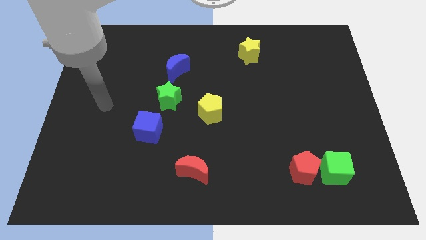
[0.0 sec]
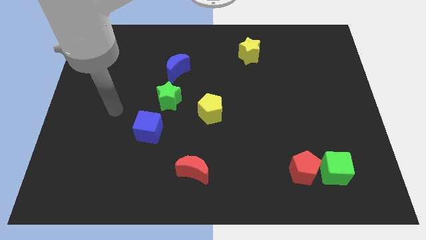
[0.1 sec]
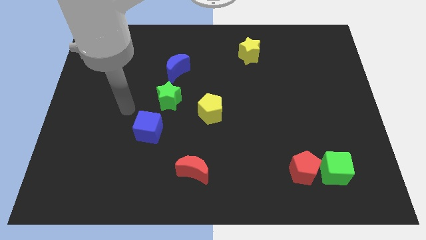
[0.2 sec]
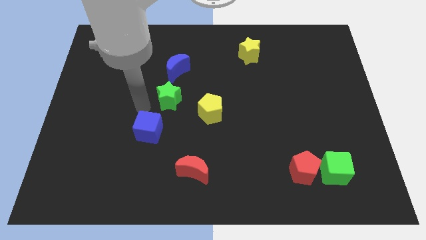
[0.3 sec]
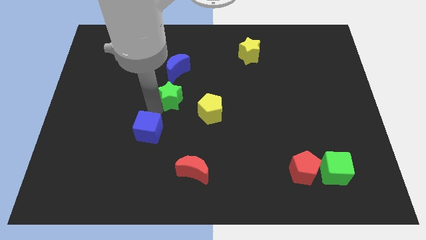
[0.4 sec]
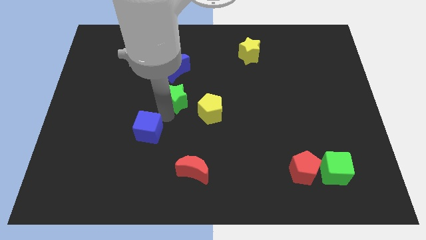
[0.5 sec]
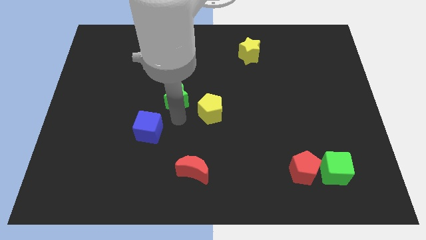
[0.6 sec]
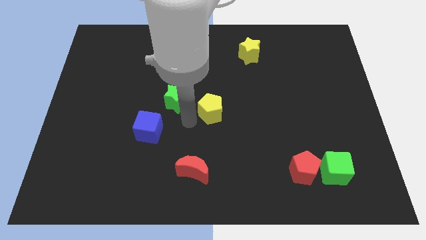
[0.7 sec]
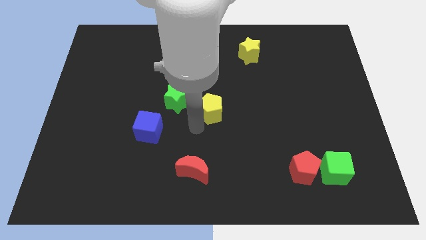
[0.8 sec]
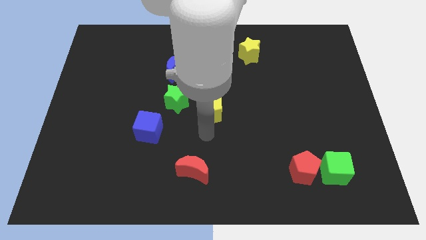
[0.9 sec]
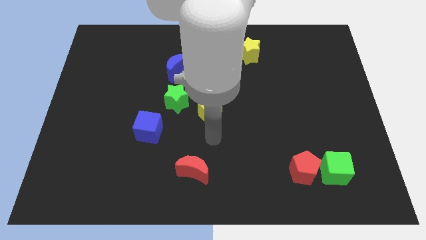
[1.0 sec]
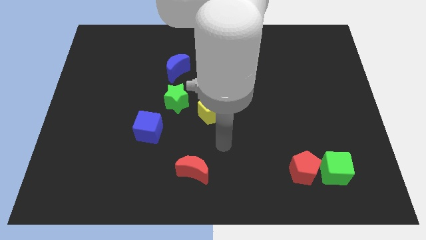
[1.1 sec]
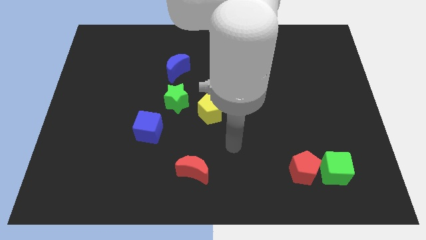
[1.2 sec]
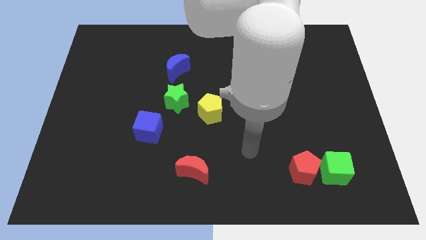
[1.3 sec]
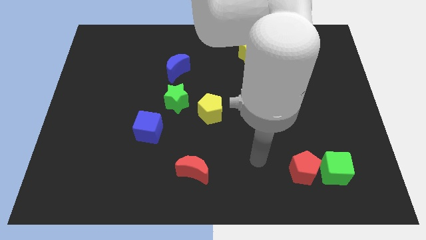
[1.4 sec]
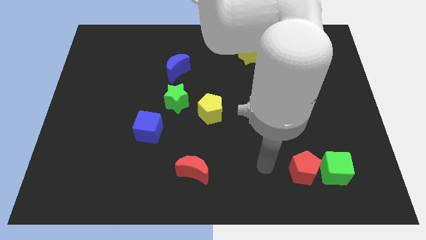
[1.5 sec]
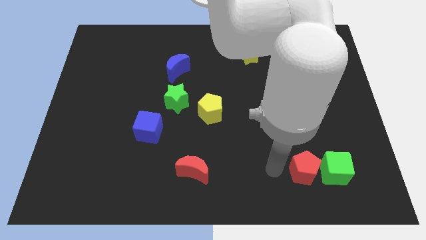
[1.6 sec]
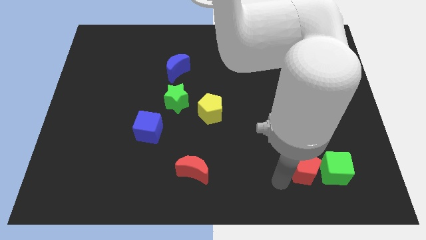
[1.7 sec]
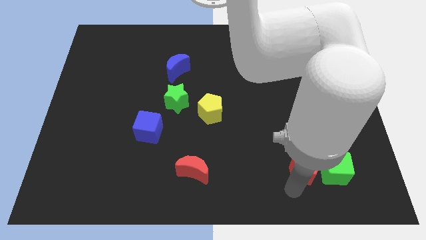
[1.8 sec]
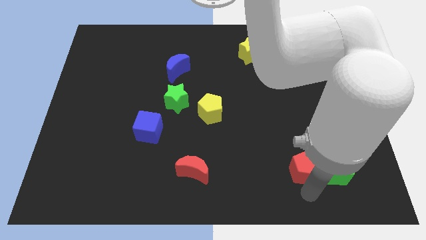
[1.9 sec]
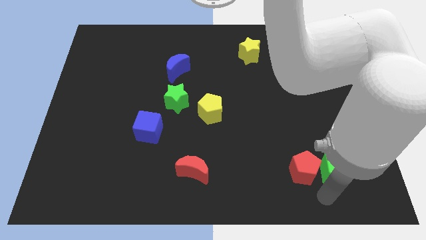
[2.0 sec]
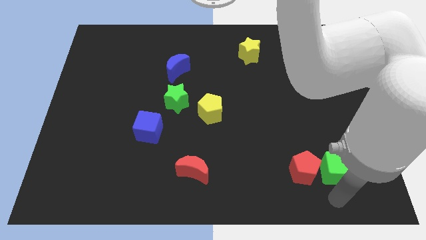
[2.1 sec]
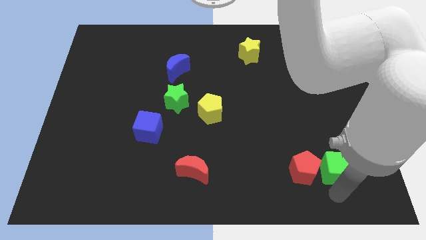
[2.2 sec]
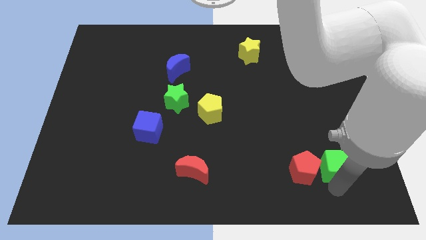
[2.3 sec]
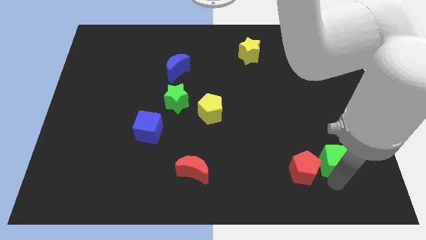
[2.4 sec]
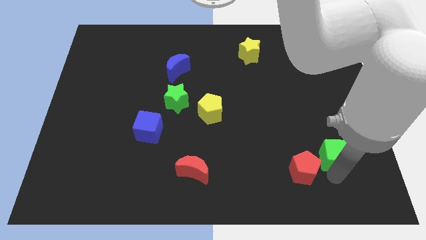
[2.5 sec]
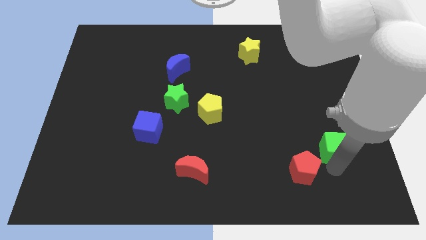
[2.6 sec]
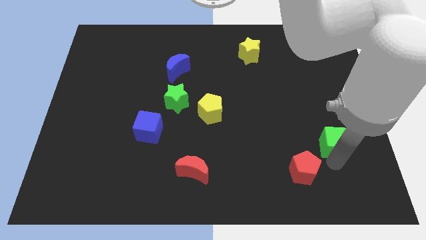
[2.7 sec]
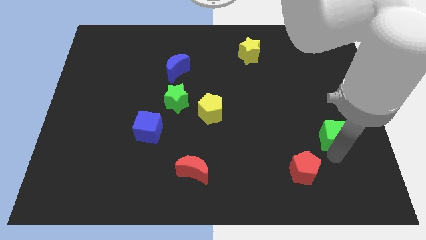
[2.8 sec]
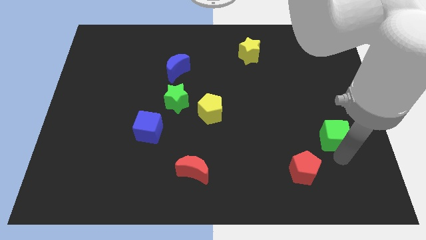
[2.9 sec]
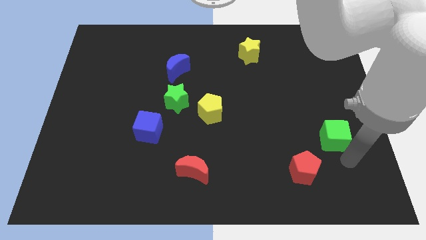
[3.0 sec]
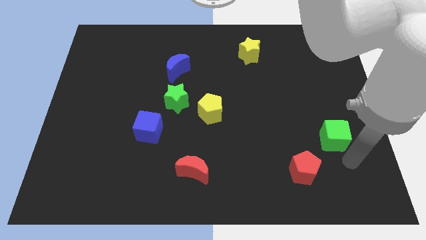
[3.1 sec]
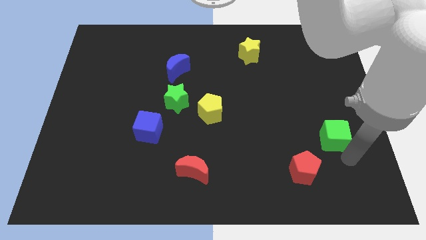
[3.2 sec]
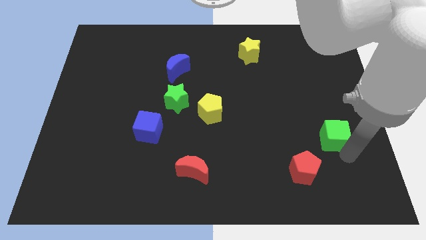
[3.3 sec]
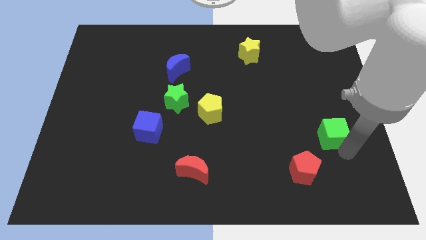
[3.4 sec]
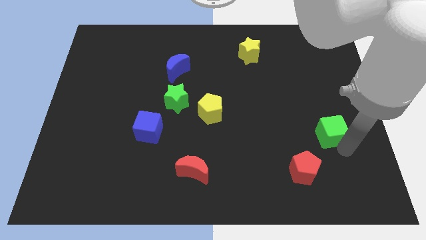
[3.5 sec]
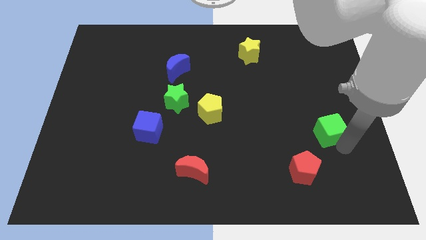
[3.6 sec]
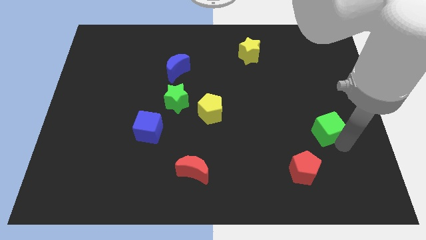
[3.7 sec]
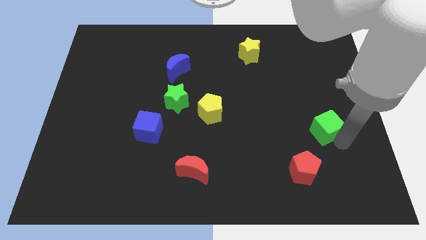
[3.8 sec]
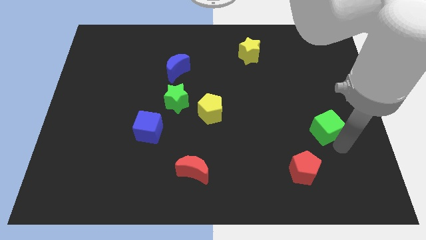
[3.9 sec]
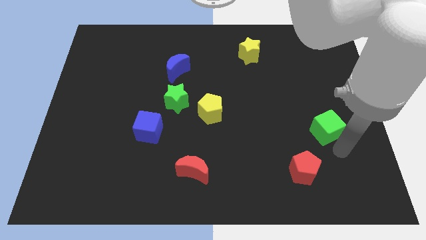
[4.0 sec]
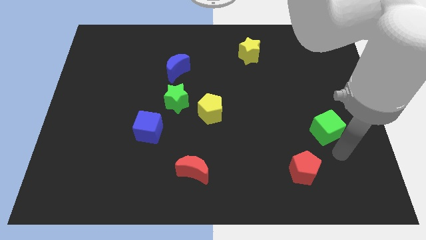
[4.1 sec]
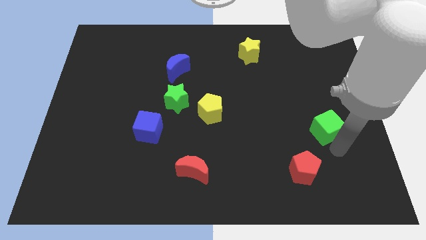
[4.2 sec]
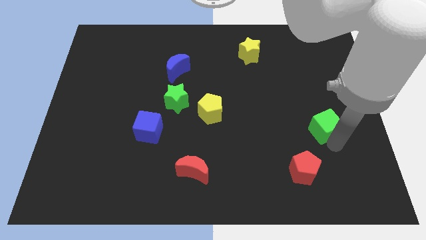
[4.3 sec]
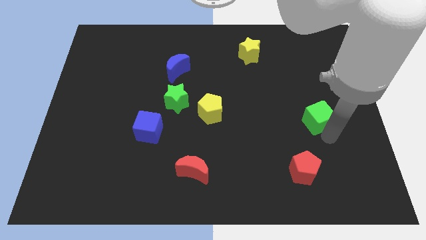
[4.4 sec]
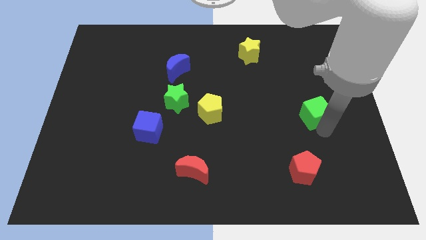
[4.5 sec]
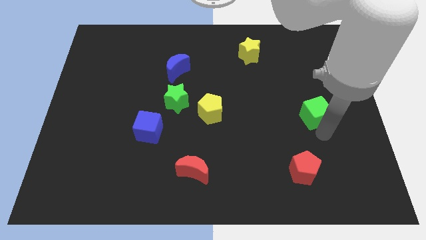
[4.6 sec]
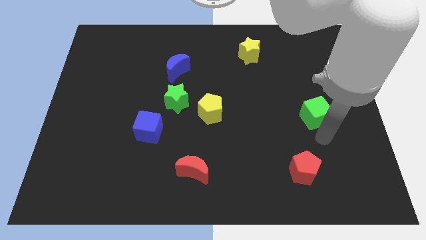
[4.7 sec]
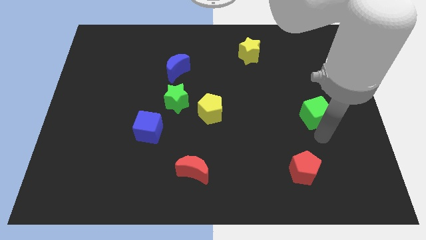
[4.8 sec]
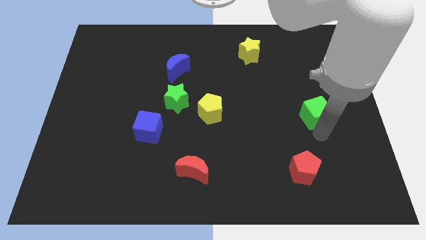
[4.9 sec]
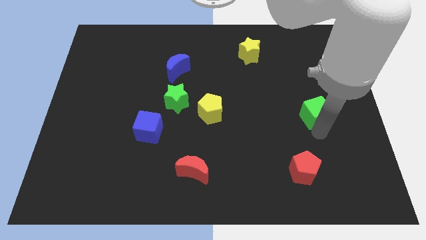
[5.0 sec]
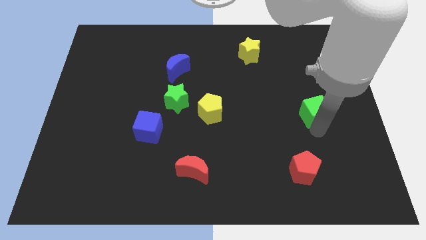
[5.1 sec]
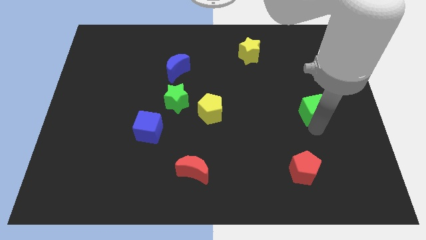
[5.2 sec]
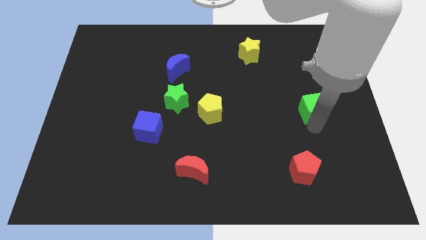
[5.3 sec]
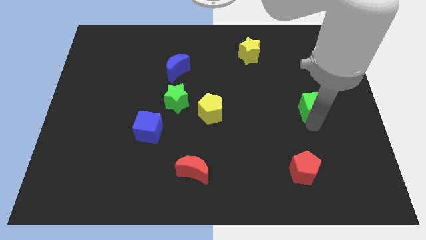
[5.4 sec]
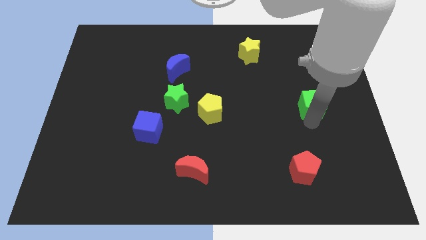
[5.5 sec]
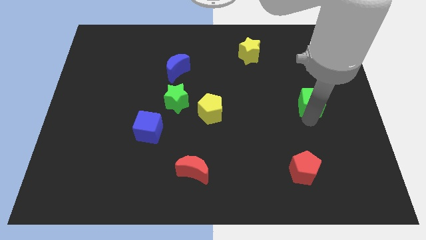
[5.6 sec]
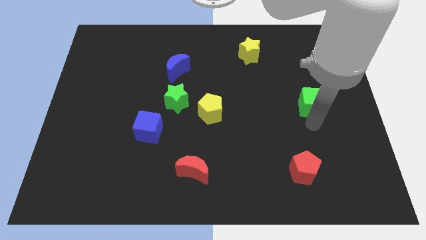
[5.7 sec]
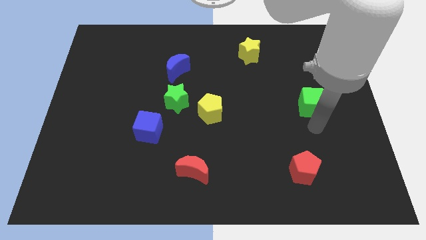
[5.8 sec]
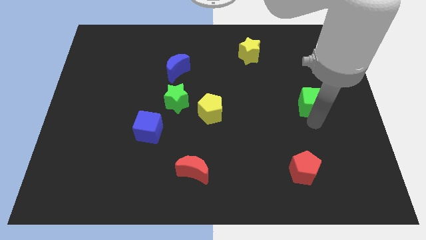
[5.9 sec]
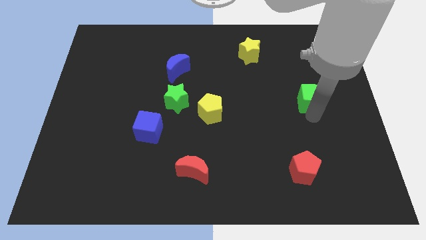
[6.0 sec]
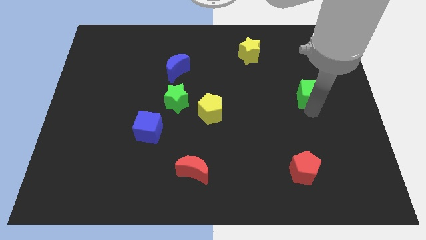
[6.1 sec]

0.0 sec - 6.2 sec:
move the green cube upwards

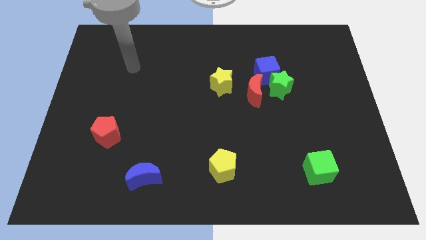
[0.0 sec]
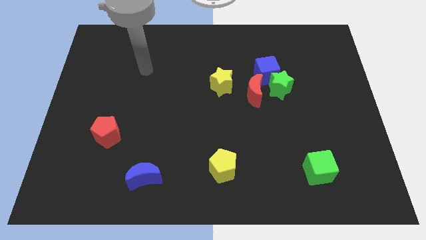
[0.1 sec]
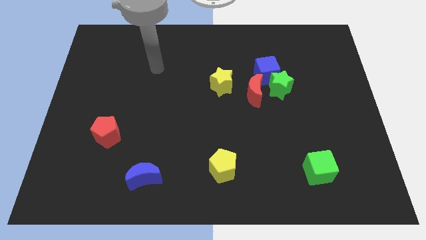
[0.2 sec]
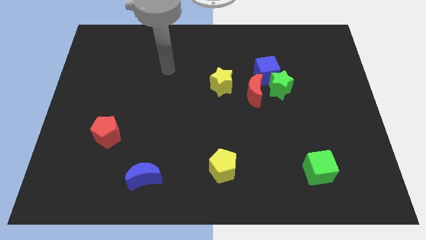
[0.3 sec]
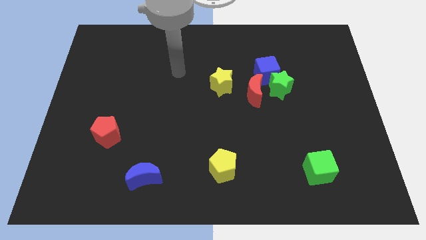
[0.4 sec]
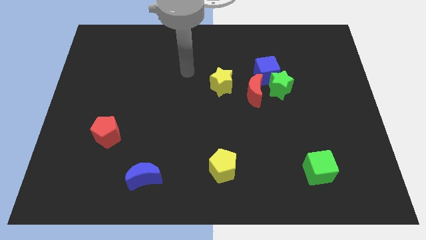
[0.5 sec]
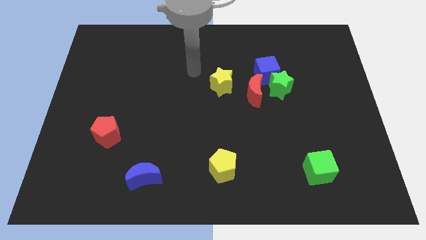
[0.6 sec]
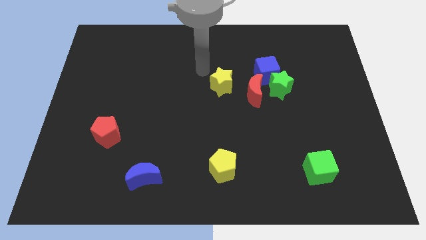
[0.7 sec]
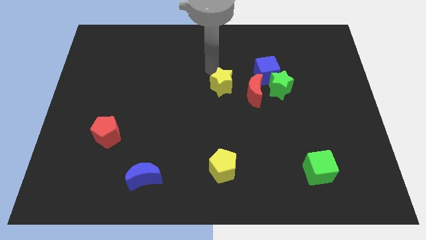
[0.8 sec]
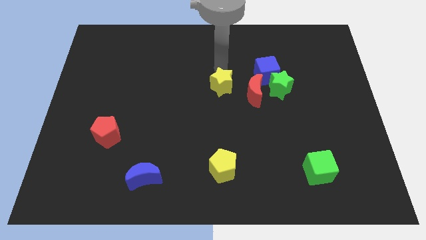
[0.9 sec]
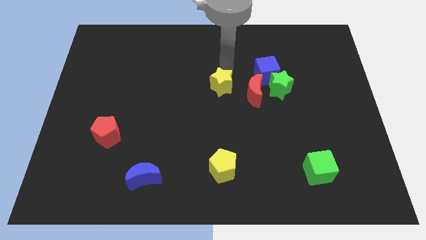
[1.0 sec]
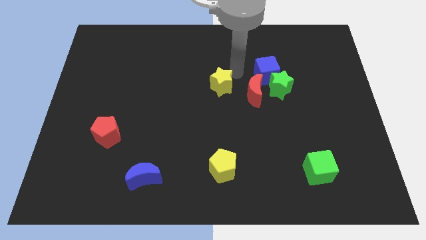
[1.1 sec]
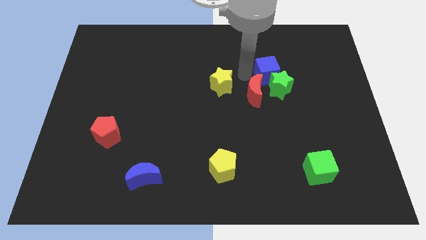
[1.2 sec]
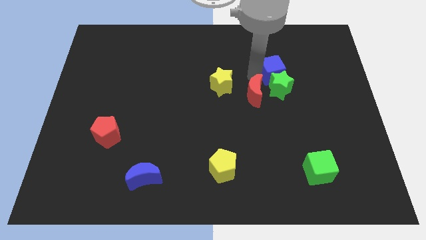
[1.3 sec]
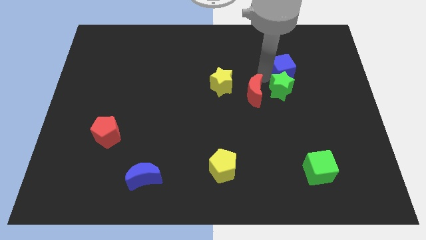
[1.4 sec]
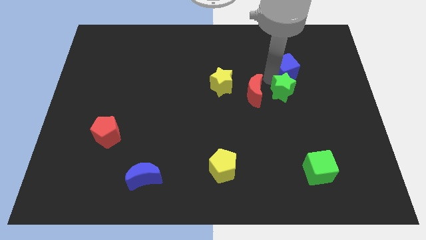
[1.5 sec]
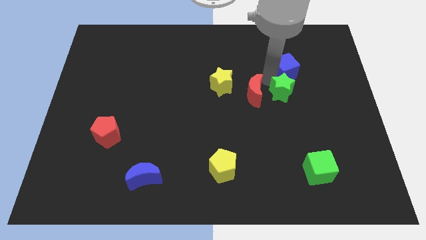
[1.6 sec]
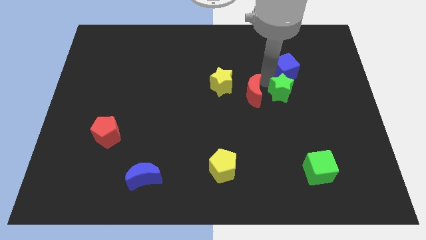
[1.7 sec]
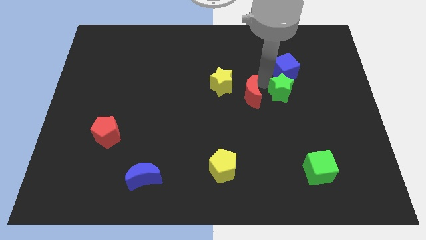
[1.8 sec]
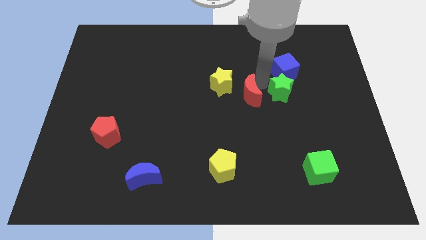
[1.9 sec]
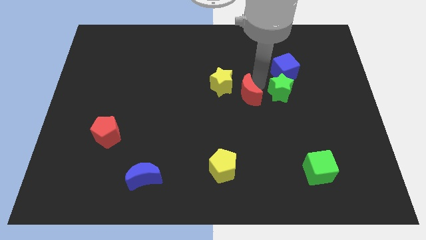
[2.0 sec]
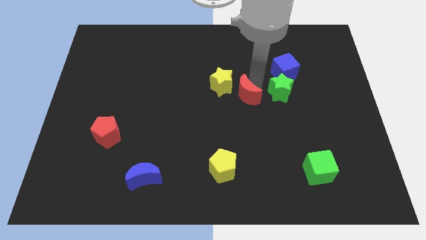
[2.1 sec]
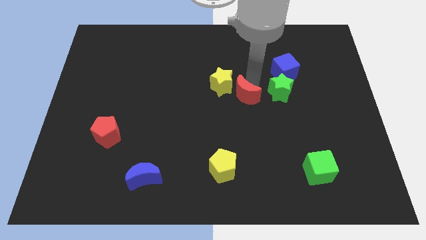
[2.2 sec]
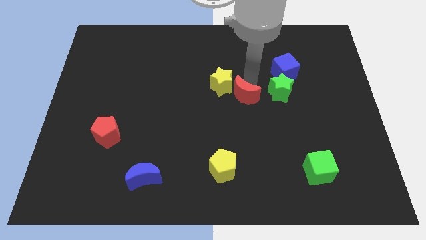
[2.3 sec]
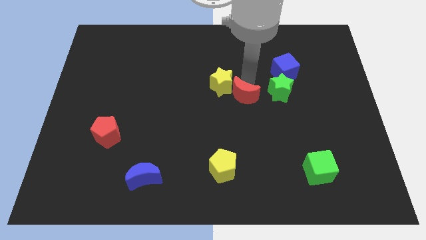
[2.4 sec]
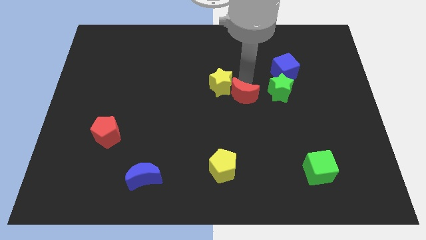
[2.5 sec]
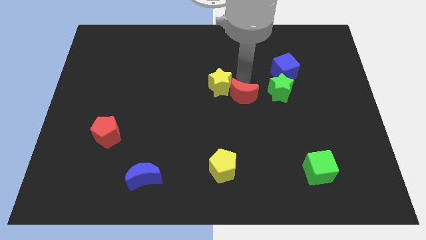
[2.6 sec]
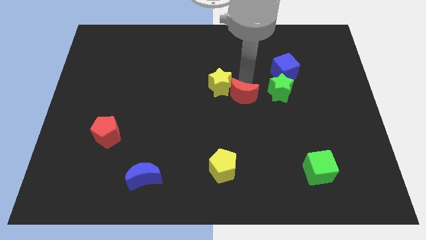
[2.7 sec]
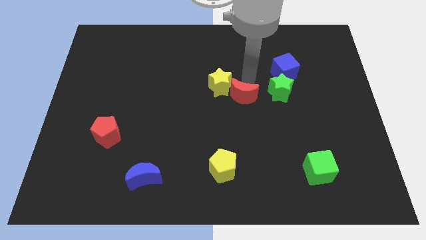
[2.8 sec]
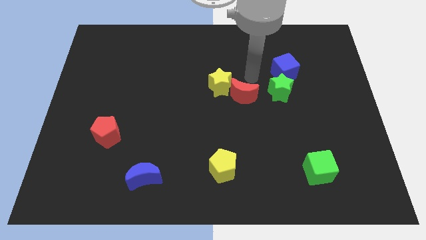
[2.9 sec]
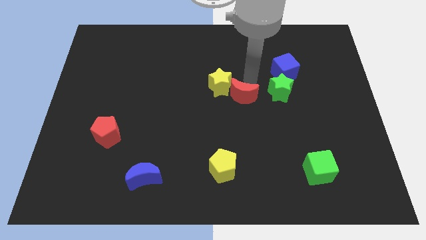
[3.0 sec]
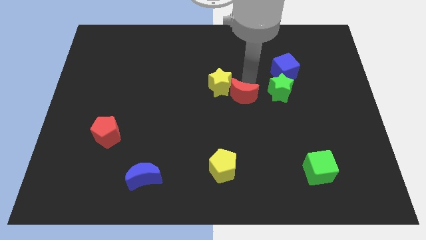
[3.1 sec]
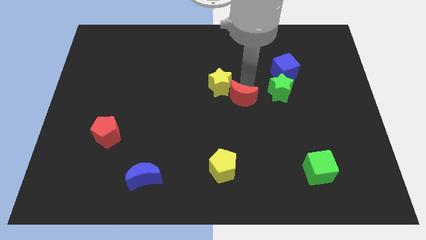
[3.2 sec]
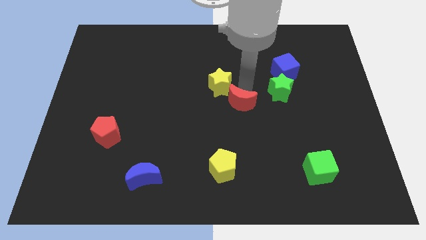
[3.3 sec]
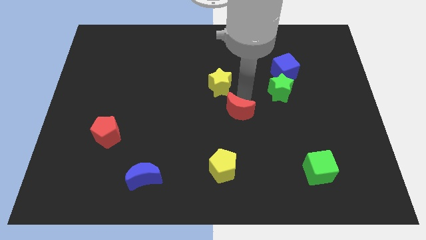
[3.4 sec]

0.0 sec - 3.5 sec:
slide the red moon diagonally down and to the left a bit
